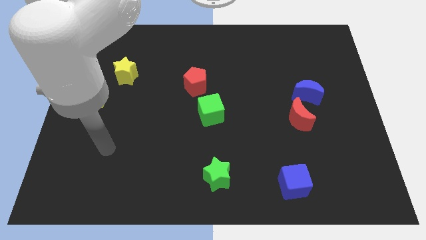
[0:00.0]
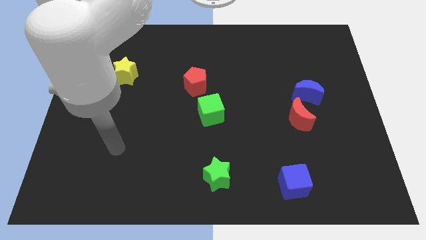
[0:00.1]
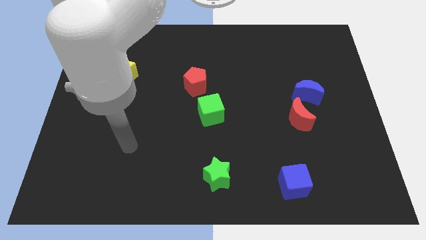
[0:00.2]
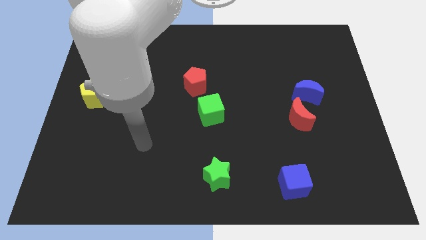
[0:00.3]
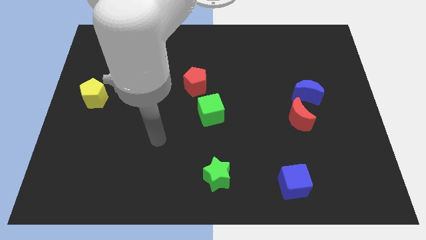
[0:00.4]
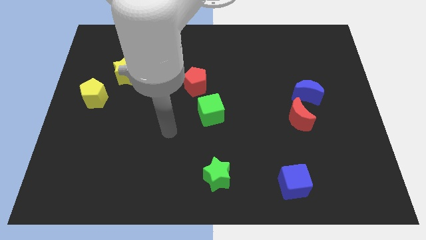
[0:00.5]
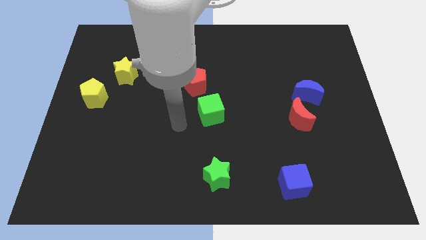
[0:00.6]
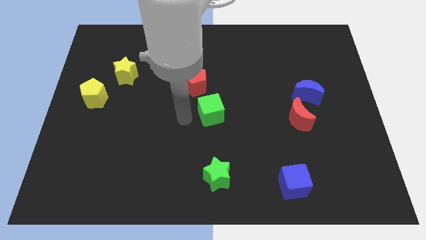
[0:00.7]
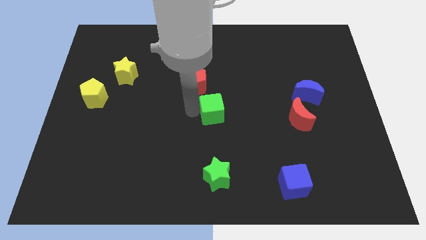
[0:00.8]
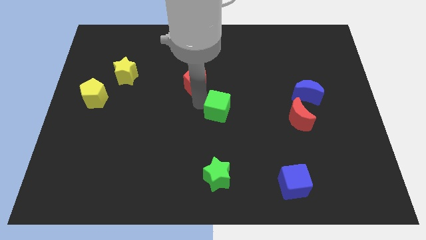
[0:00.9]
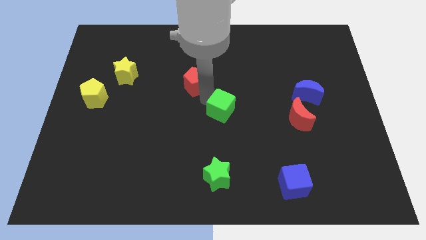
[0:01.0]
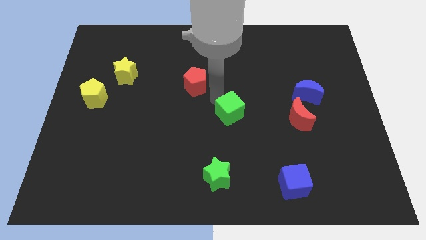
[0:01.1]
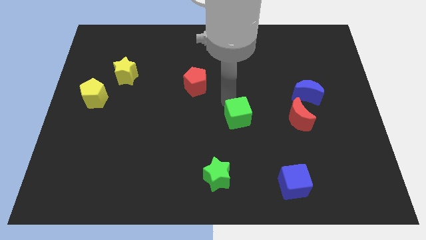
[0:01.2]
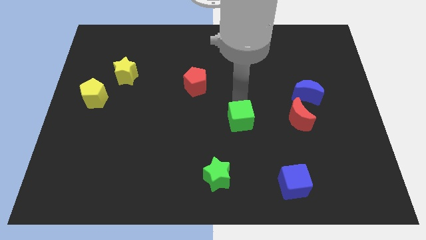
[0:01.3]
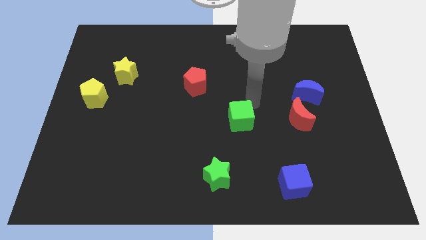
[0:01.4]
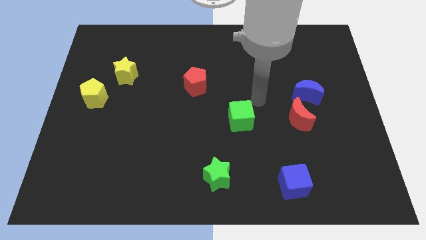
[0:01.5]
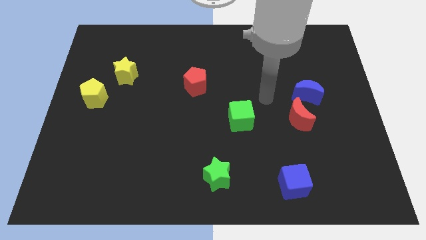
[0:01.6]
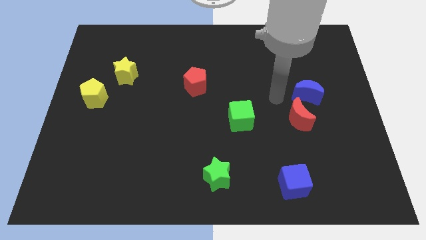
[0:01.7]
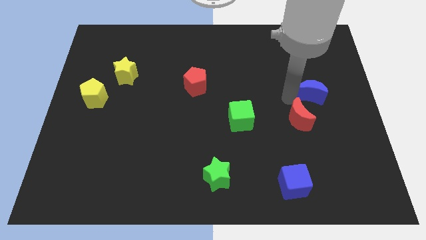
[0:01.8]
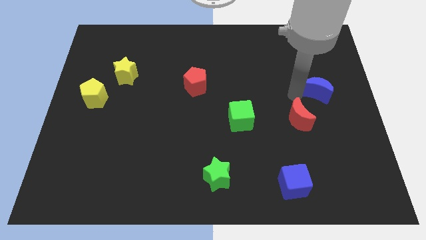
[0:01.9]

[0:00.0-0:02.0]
pull the red moon apart from the blue moon

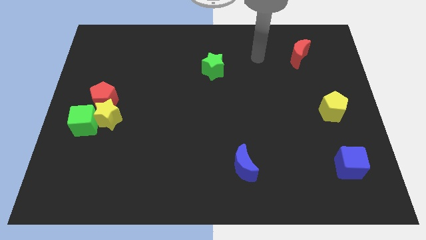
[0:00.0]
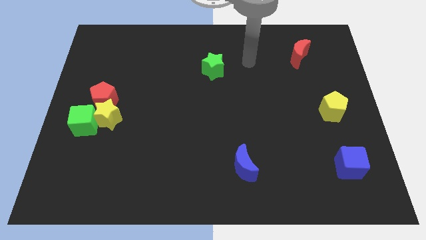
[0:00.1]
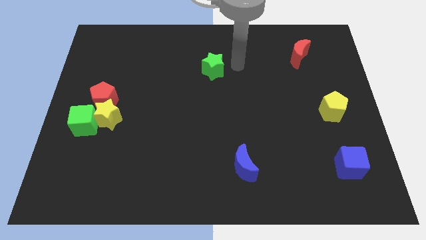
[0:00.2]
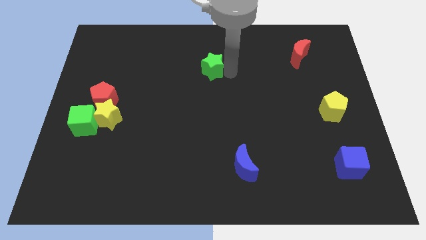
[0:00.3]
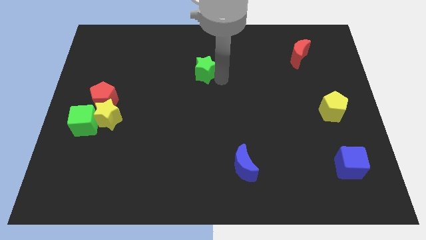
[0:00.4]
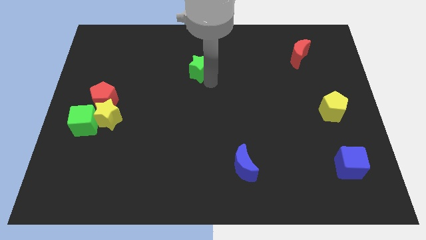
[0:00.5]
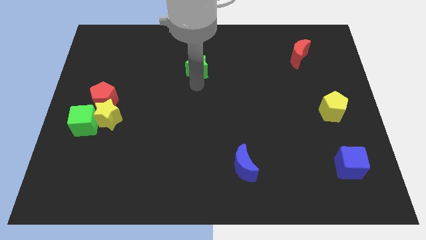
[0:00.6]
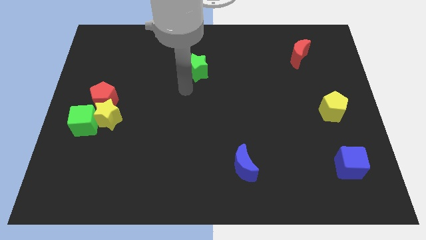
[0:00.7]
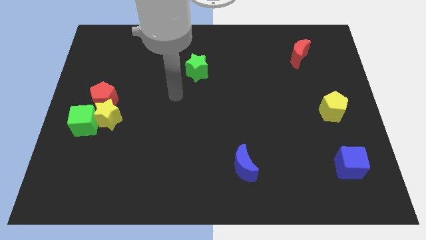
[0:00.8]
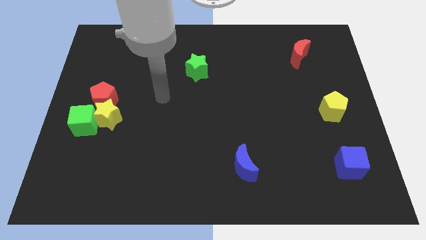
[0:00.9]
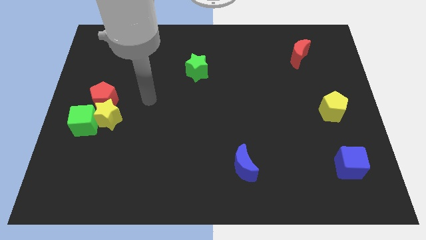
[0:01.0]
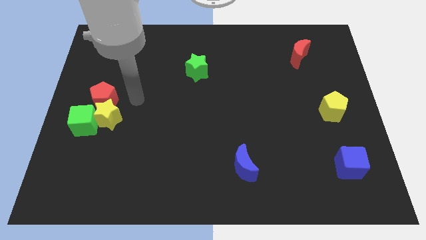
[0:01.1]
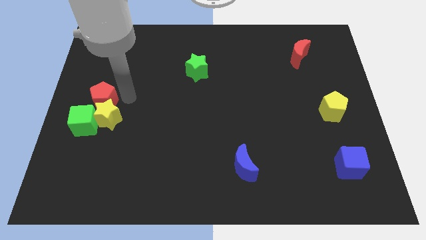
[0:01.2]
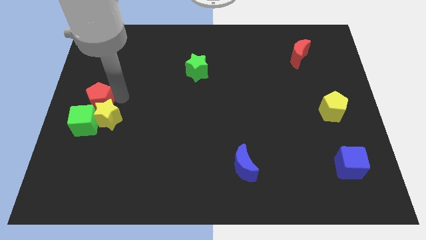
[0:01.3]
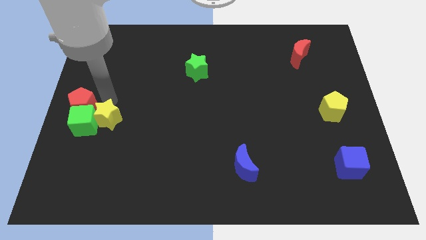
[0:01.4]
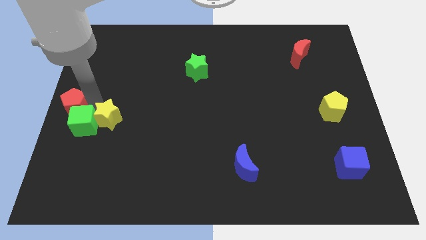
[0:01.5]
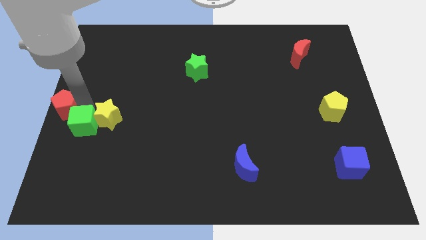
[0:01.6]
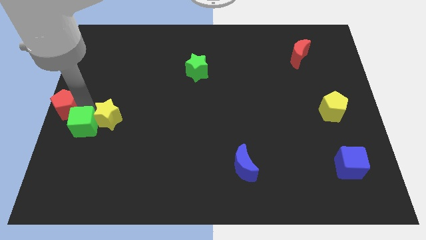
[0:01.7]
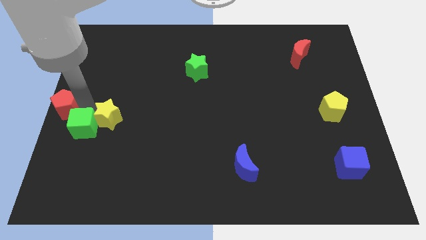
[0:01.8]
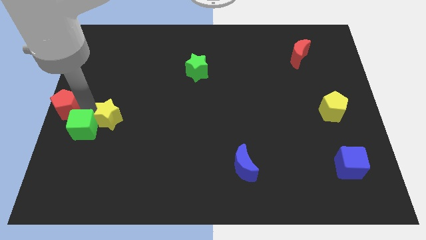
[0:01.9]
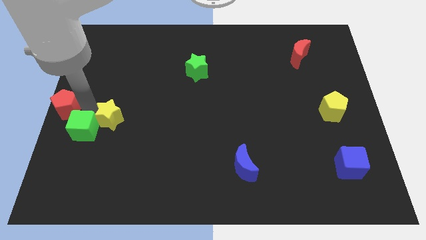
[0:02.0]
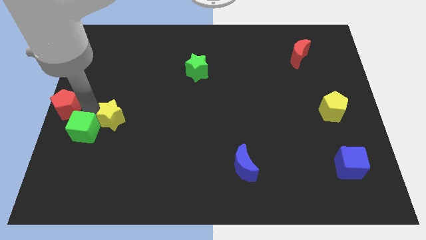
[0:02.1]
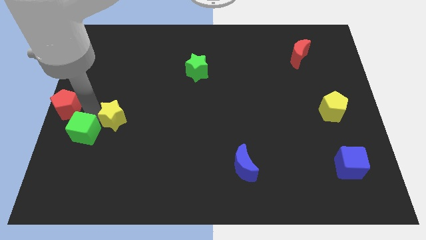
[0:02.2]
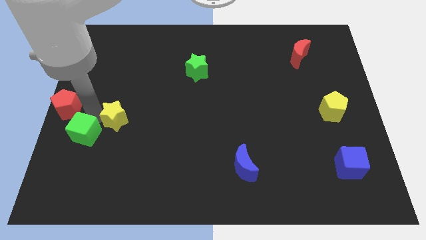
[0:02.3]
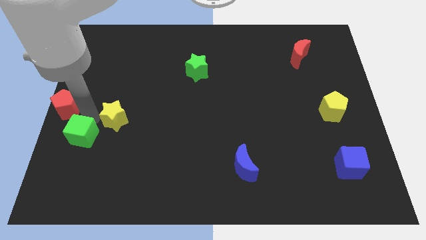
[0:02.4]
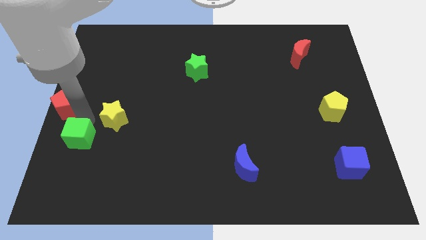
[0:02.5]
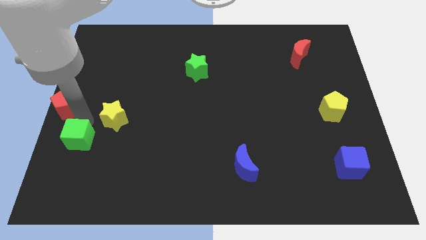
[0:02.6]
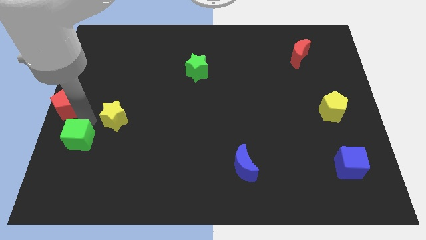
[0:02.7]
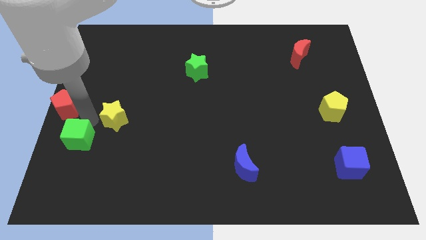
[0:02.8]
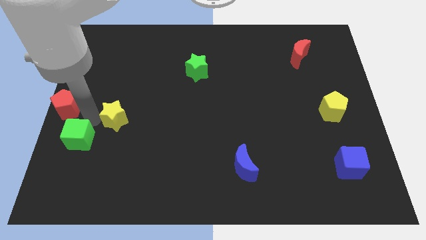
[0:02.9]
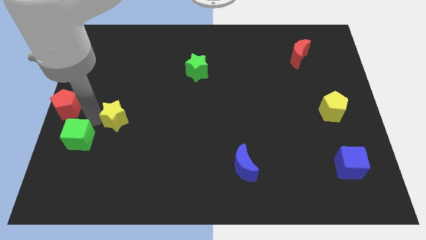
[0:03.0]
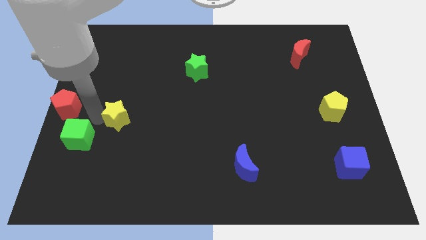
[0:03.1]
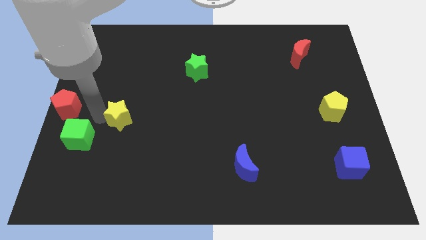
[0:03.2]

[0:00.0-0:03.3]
pull the yellow star apart from the green cube and red pentagon

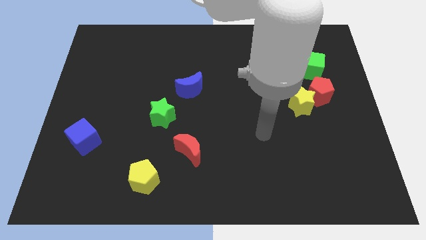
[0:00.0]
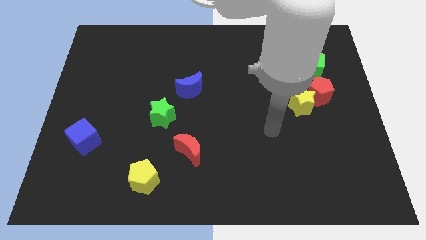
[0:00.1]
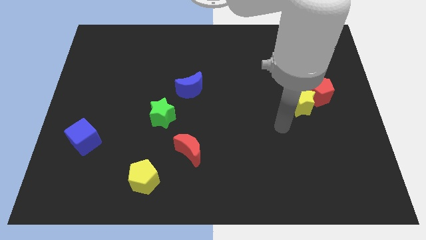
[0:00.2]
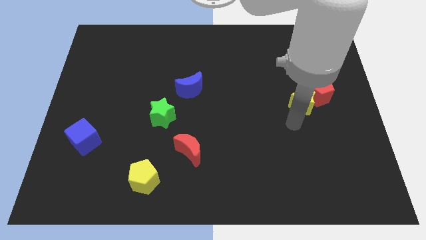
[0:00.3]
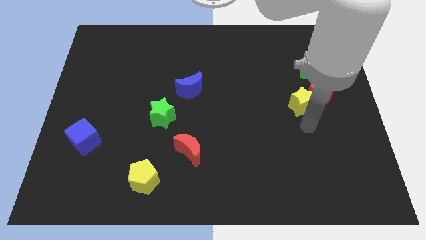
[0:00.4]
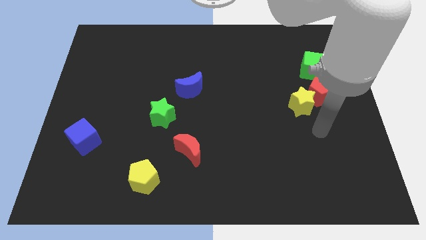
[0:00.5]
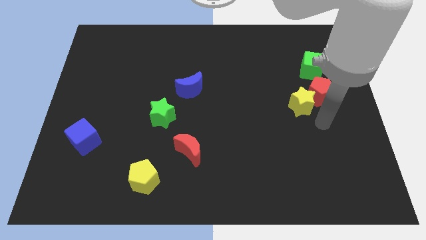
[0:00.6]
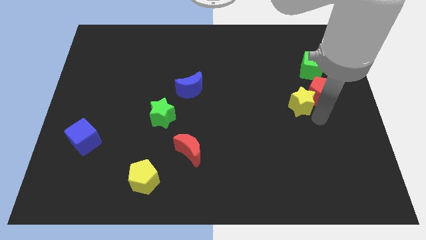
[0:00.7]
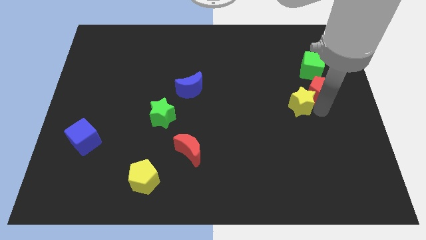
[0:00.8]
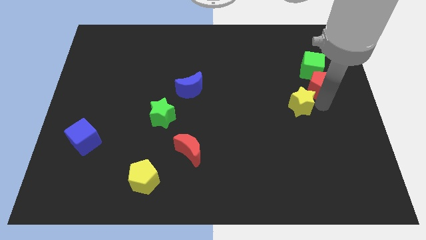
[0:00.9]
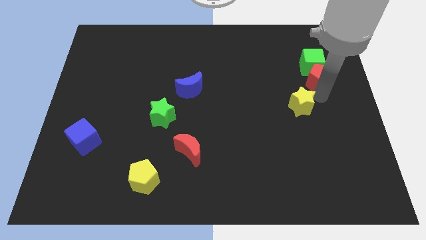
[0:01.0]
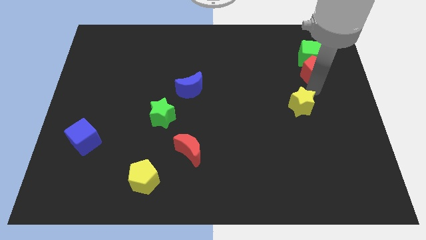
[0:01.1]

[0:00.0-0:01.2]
separate the yellow star from the red pentagon

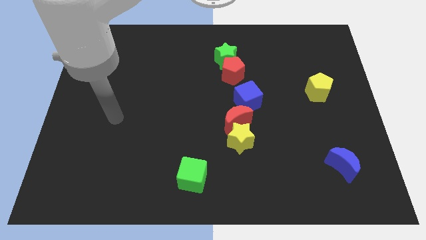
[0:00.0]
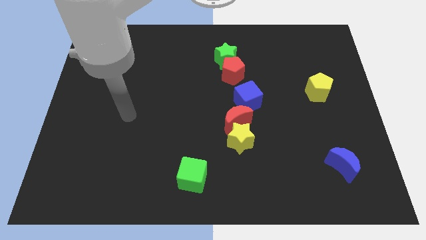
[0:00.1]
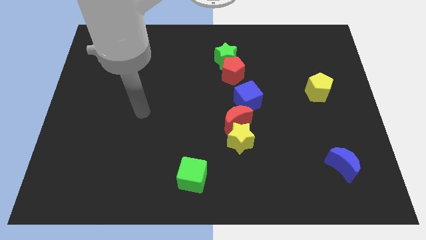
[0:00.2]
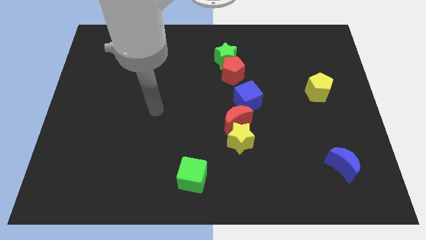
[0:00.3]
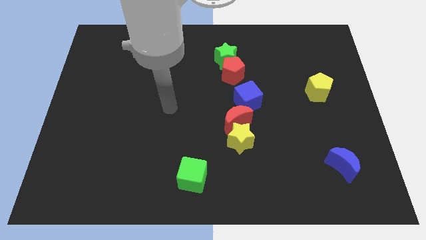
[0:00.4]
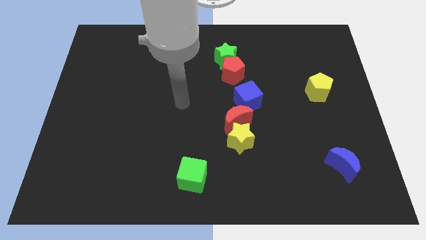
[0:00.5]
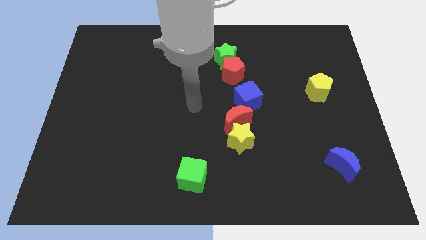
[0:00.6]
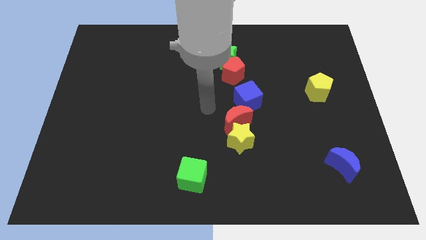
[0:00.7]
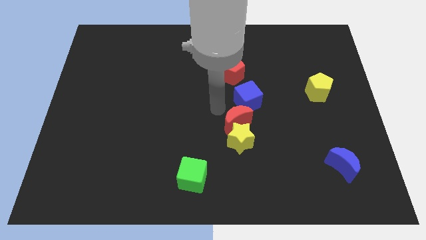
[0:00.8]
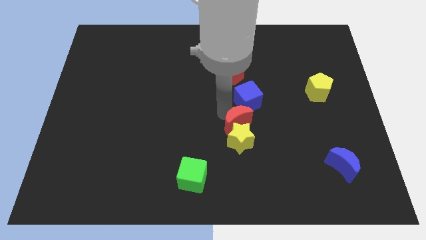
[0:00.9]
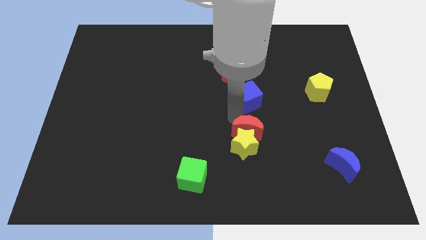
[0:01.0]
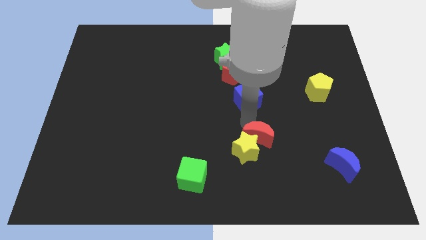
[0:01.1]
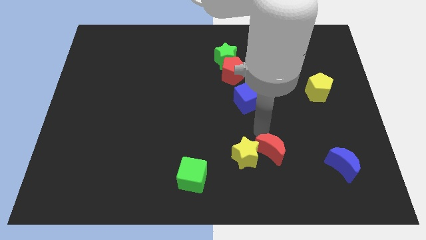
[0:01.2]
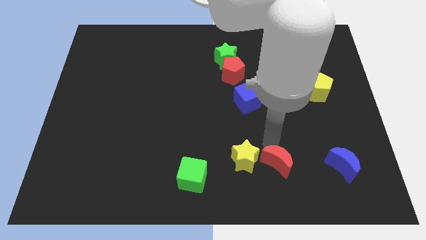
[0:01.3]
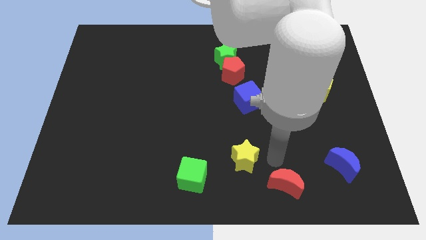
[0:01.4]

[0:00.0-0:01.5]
separate the yellow star from the red moon

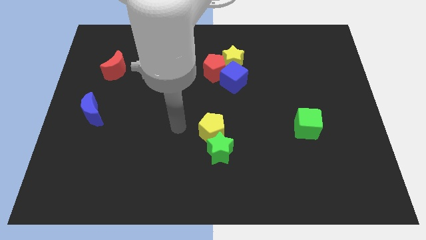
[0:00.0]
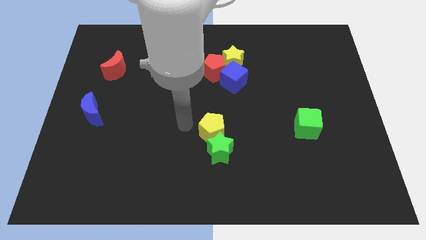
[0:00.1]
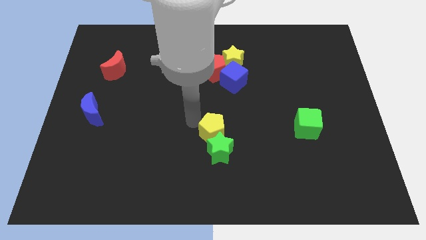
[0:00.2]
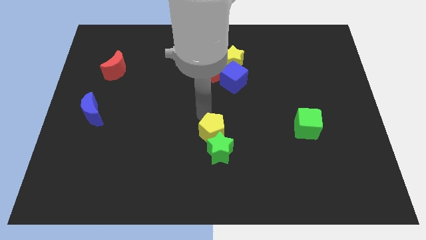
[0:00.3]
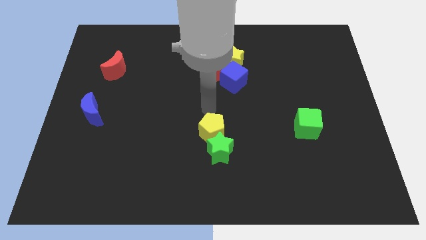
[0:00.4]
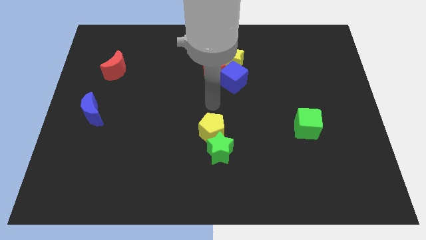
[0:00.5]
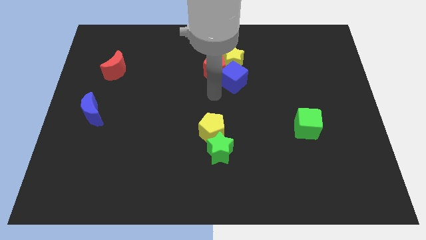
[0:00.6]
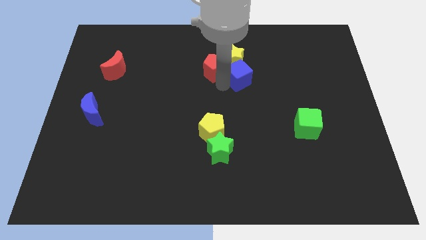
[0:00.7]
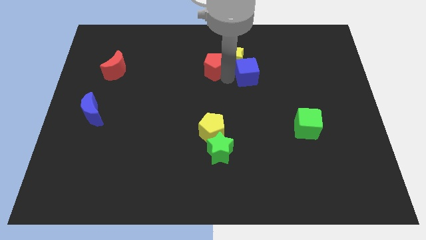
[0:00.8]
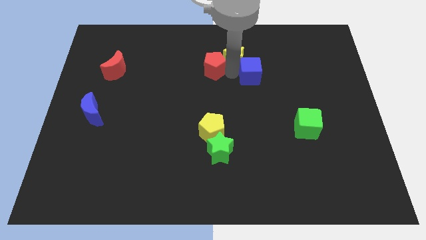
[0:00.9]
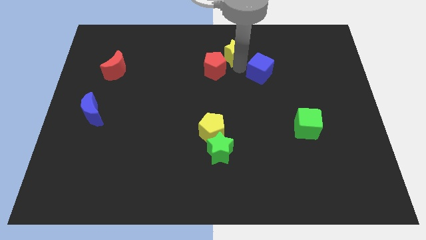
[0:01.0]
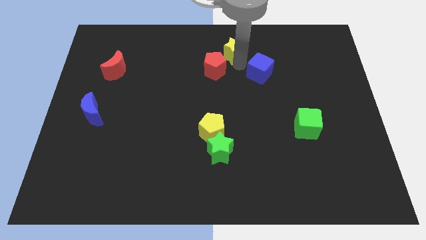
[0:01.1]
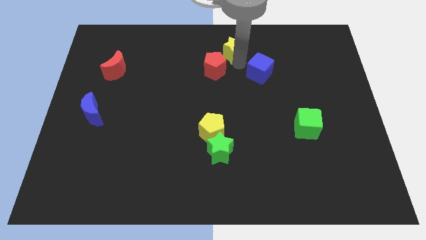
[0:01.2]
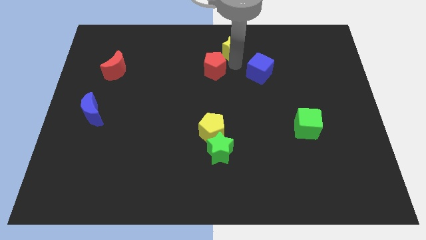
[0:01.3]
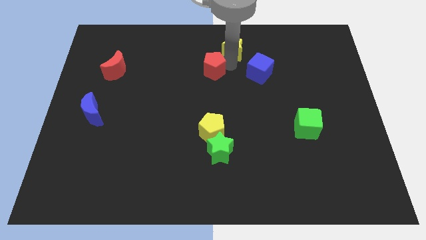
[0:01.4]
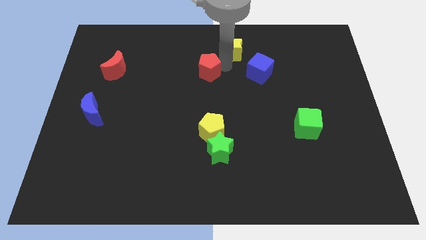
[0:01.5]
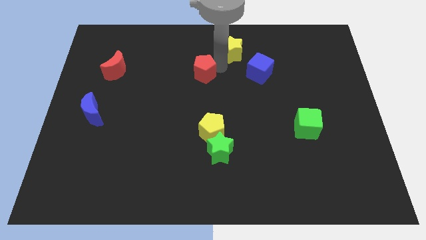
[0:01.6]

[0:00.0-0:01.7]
pull the red pentagon apart from the yellow star and blue cube
